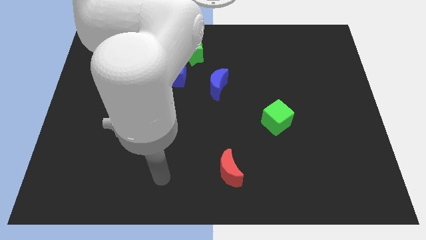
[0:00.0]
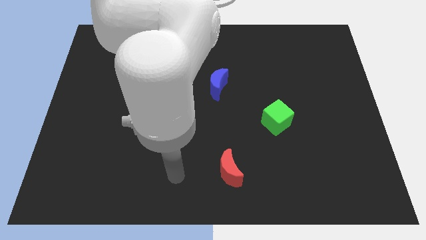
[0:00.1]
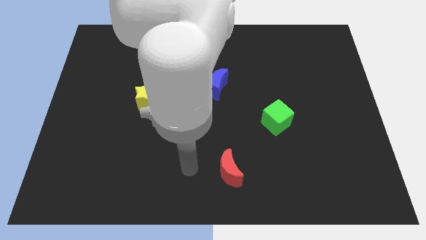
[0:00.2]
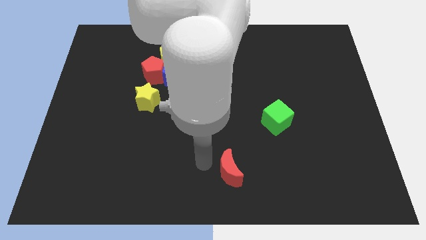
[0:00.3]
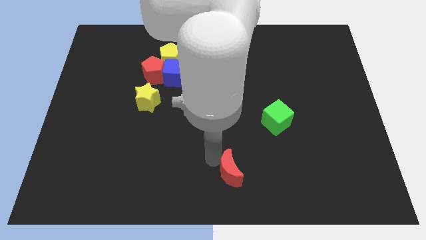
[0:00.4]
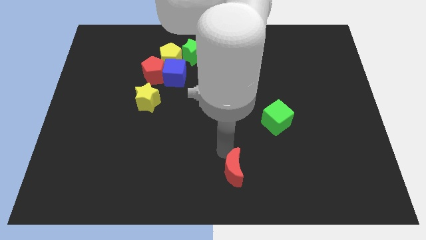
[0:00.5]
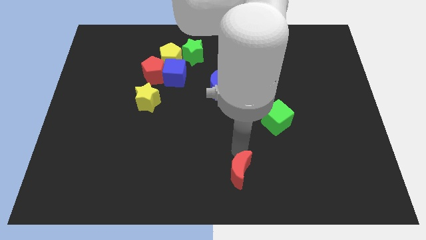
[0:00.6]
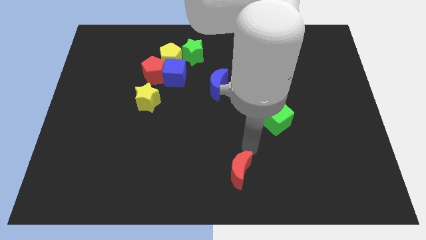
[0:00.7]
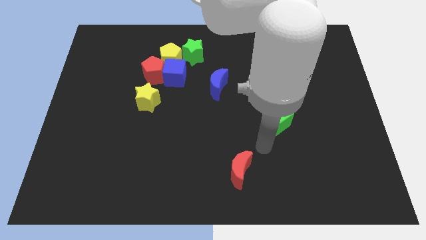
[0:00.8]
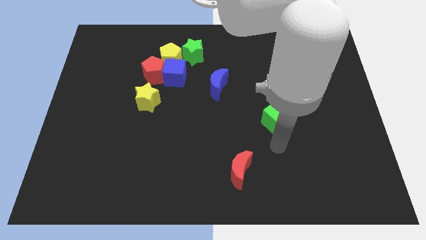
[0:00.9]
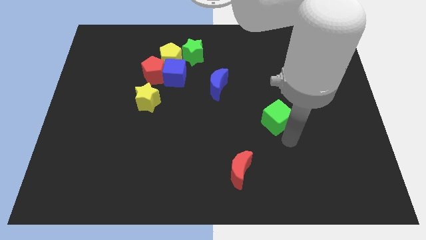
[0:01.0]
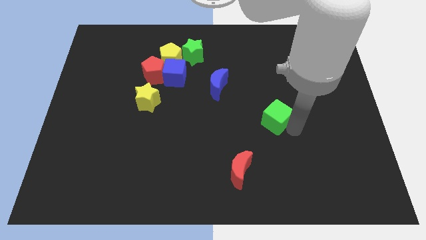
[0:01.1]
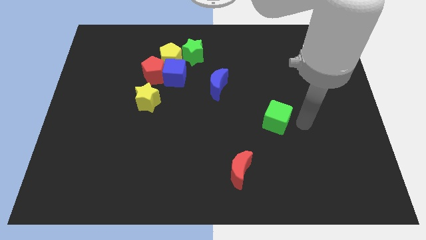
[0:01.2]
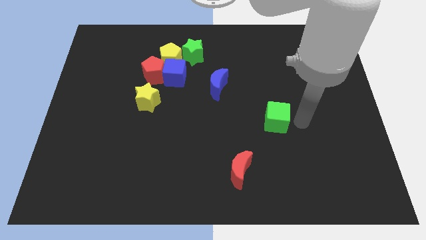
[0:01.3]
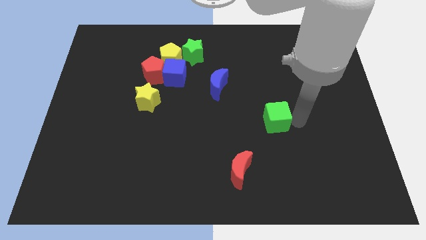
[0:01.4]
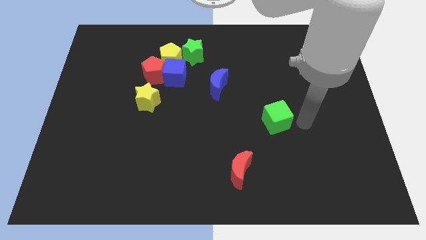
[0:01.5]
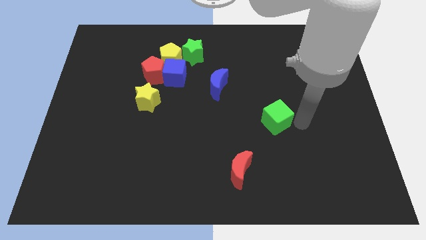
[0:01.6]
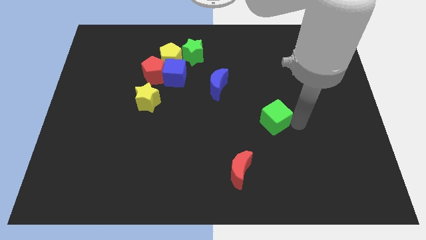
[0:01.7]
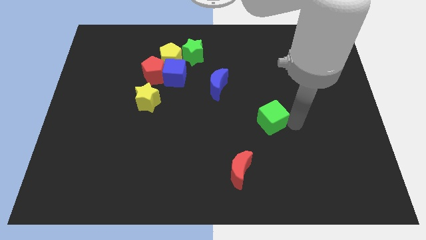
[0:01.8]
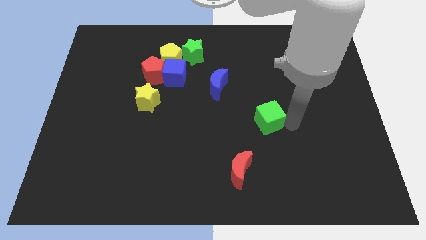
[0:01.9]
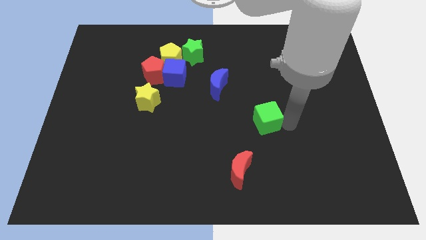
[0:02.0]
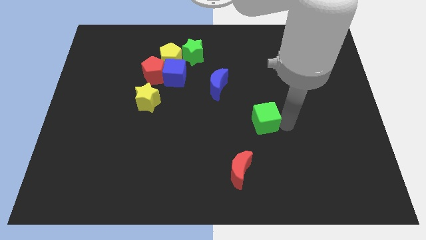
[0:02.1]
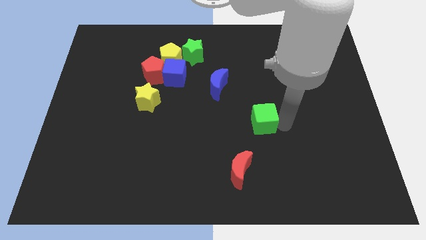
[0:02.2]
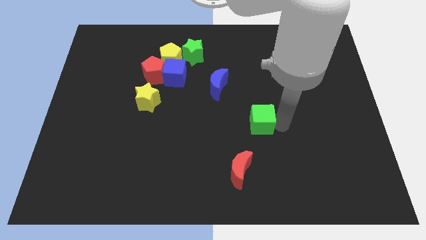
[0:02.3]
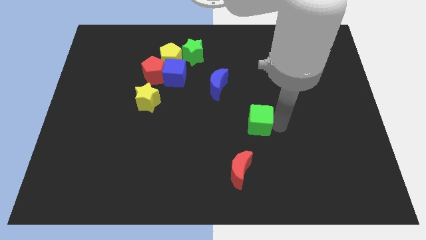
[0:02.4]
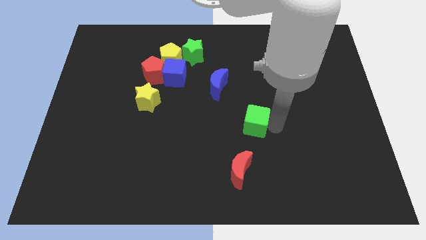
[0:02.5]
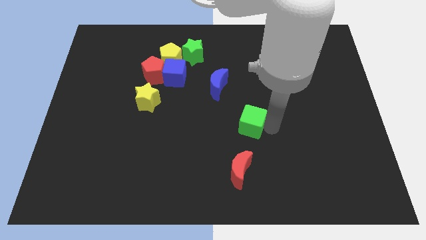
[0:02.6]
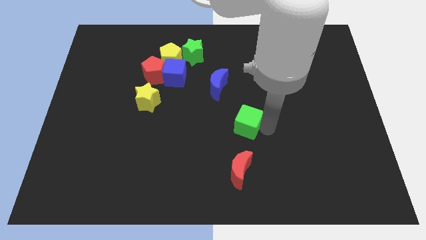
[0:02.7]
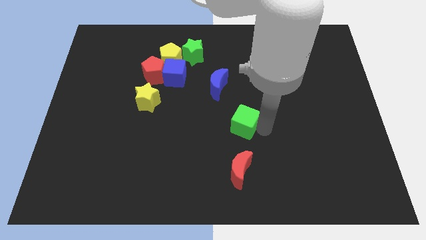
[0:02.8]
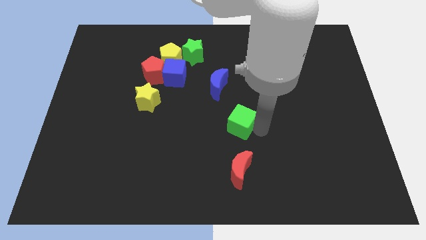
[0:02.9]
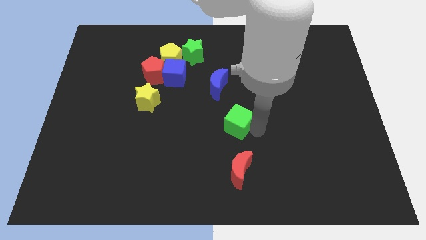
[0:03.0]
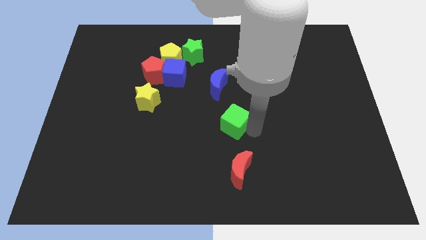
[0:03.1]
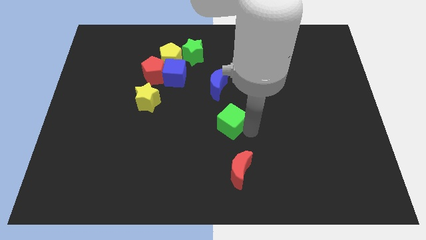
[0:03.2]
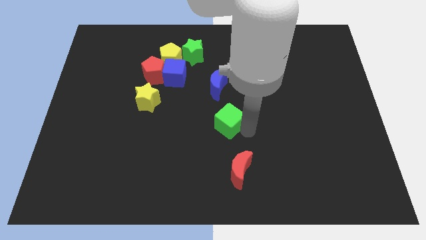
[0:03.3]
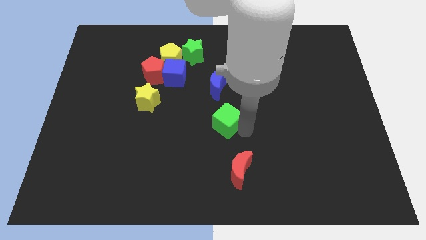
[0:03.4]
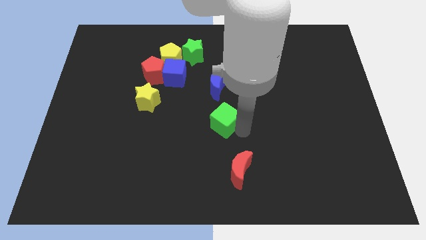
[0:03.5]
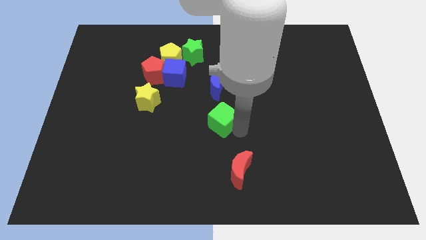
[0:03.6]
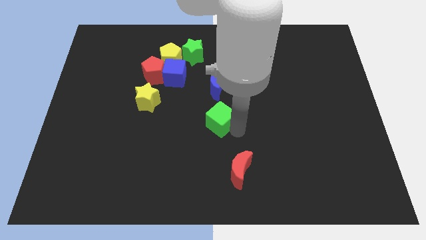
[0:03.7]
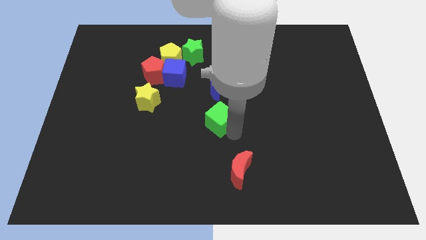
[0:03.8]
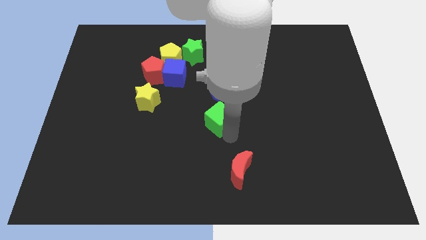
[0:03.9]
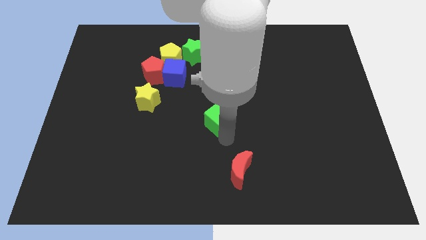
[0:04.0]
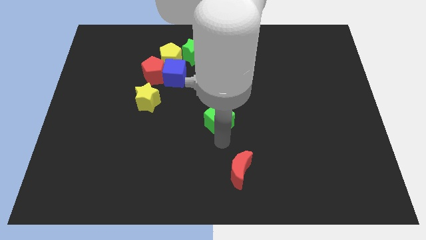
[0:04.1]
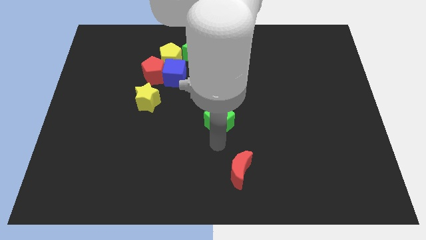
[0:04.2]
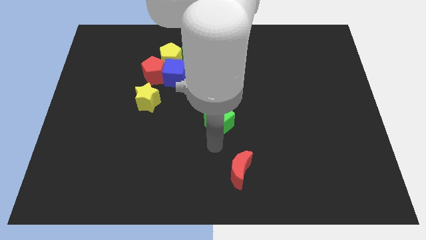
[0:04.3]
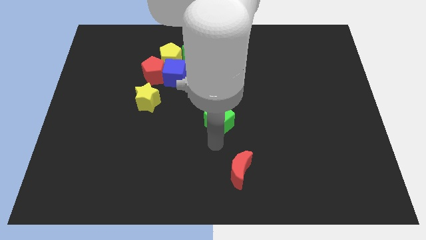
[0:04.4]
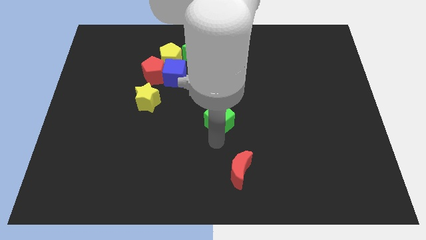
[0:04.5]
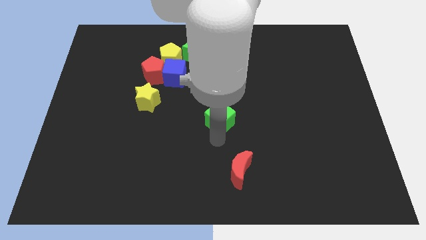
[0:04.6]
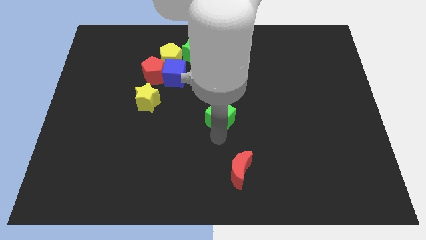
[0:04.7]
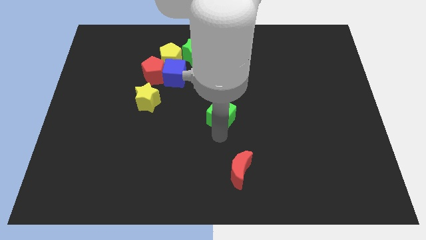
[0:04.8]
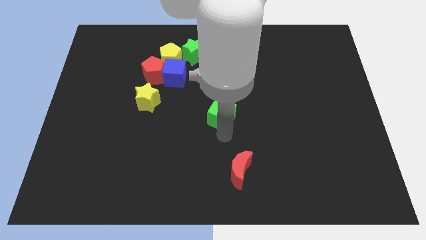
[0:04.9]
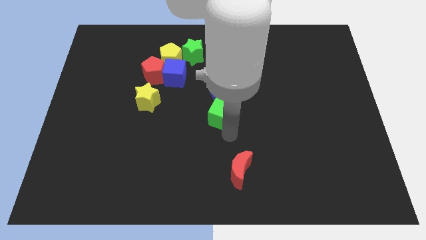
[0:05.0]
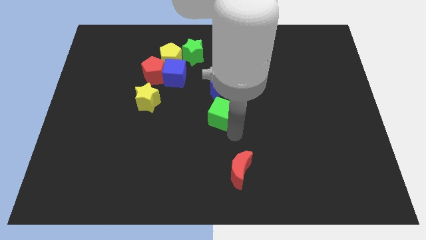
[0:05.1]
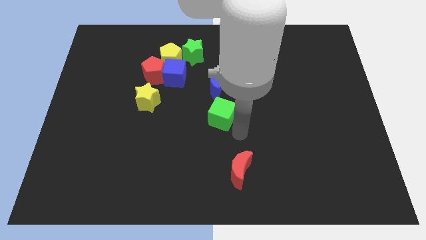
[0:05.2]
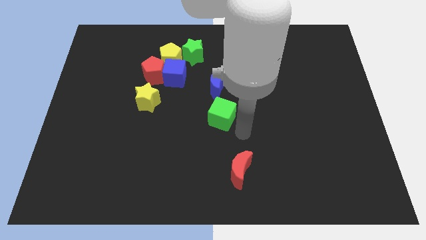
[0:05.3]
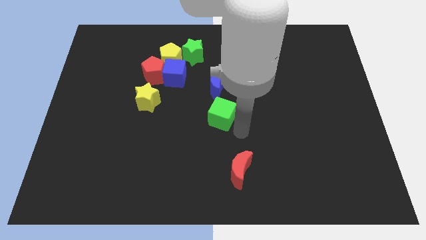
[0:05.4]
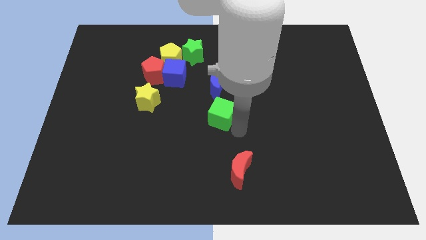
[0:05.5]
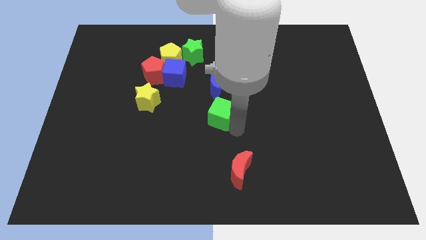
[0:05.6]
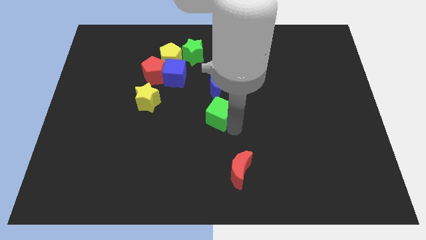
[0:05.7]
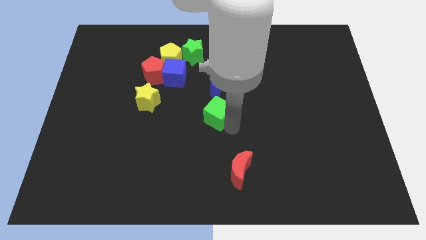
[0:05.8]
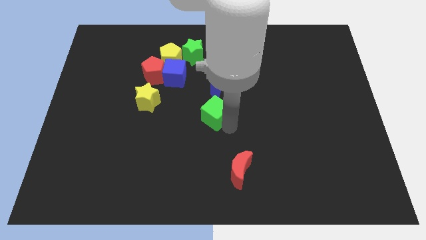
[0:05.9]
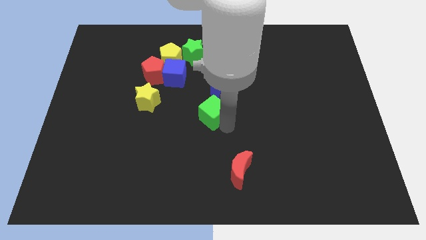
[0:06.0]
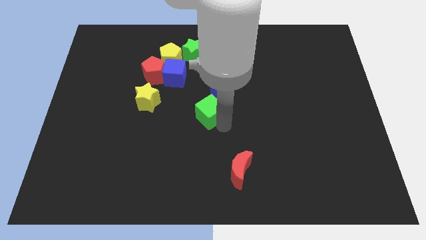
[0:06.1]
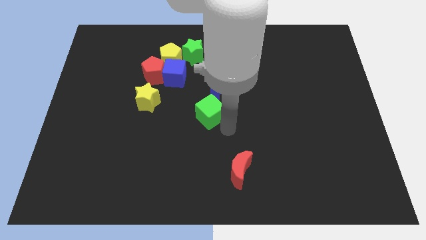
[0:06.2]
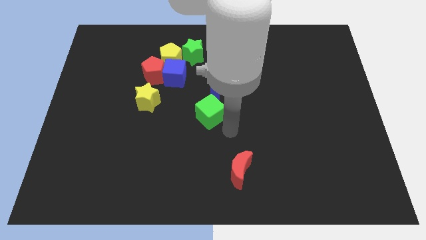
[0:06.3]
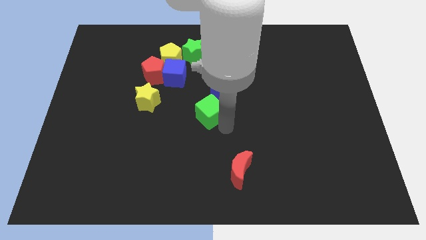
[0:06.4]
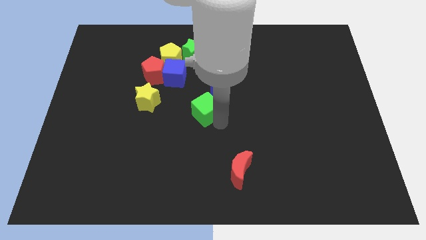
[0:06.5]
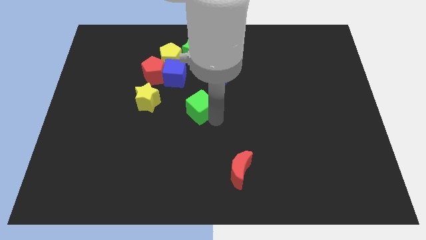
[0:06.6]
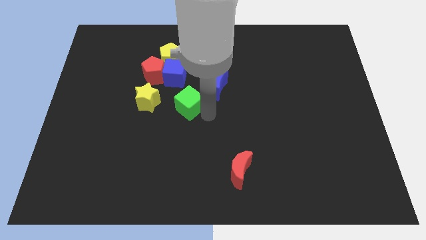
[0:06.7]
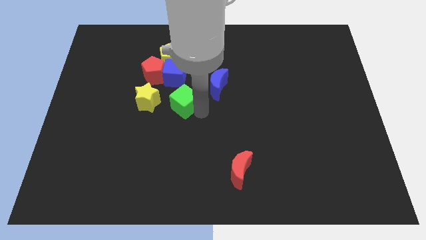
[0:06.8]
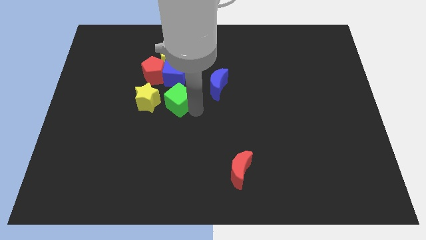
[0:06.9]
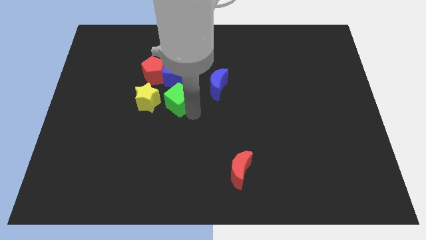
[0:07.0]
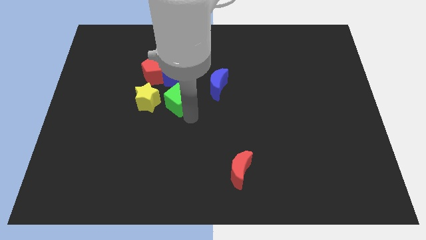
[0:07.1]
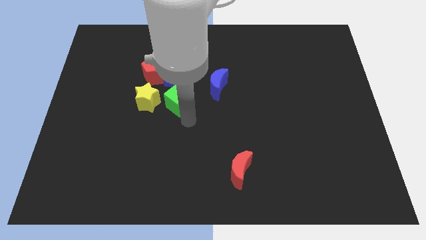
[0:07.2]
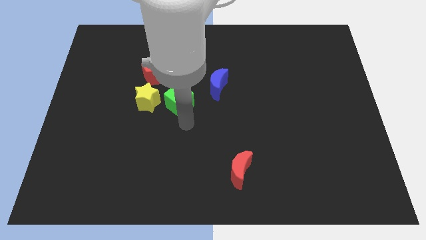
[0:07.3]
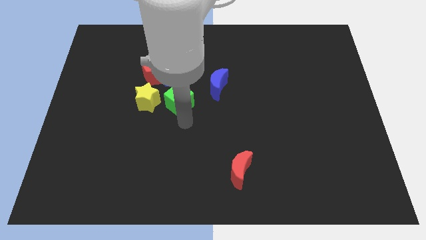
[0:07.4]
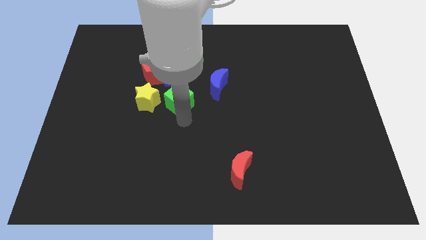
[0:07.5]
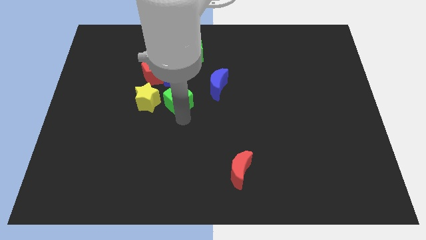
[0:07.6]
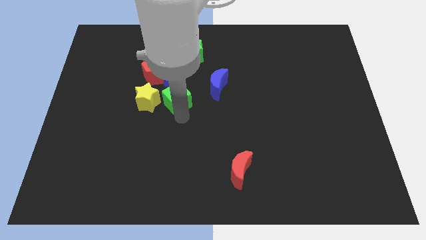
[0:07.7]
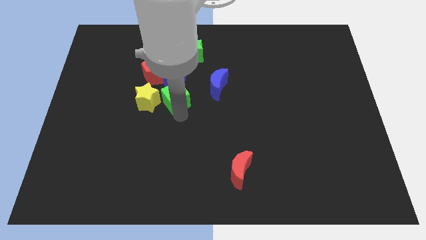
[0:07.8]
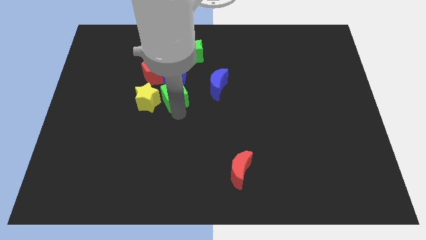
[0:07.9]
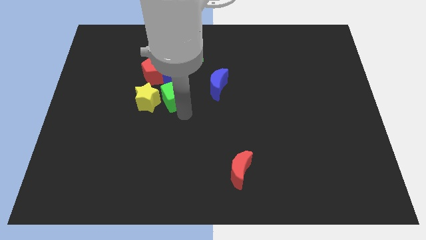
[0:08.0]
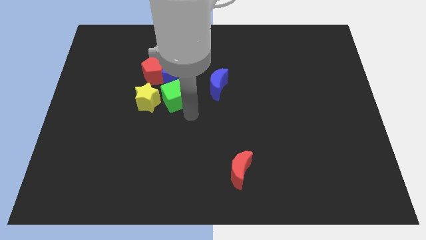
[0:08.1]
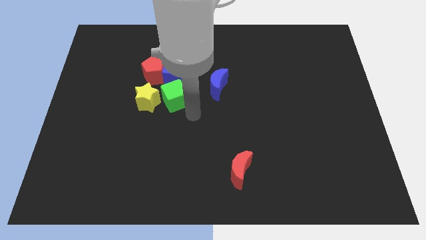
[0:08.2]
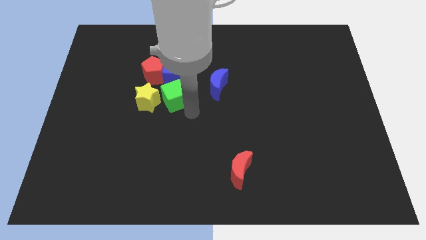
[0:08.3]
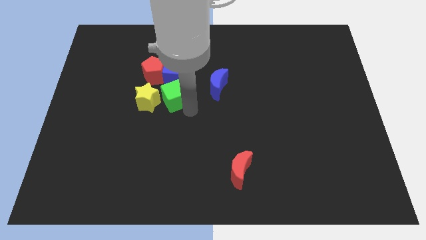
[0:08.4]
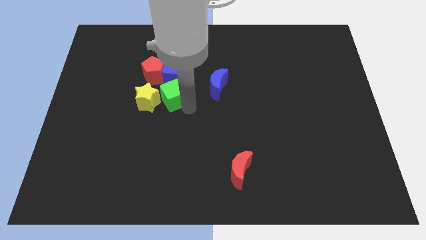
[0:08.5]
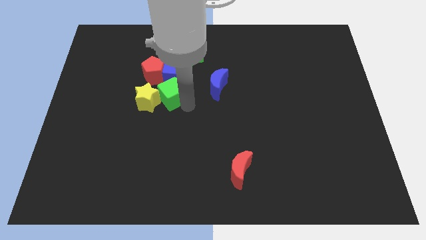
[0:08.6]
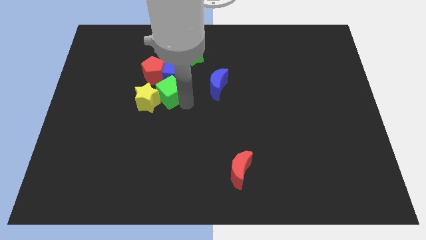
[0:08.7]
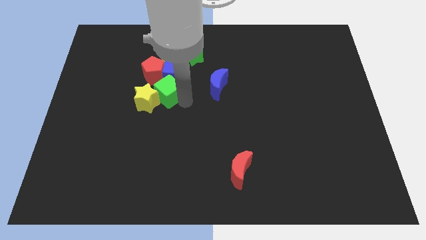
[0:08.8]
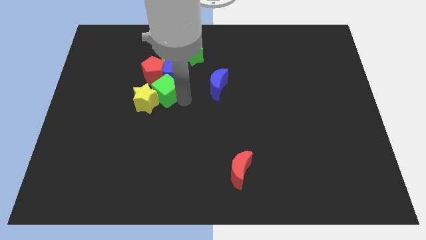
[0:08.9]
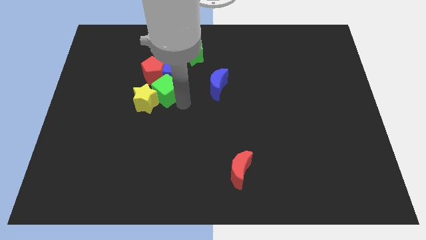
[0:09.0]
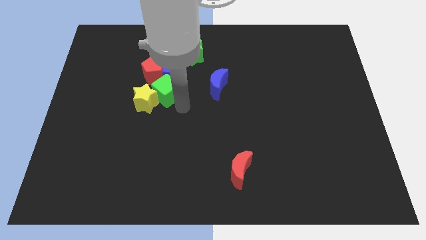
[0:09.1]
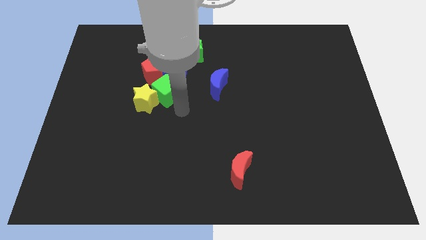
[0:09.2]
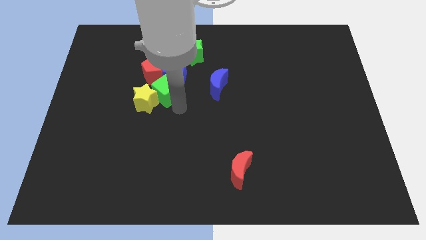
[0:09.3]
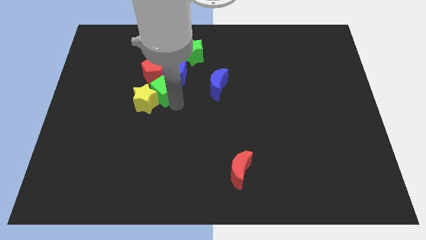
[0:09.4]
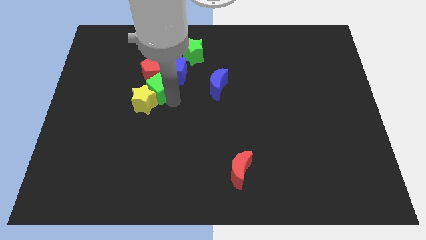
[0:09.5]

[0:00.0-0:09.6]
move the green cube close to the red pentagon
